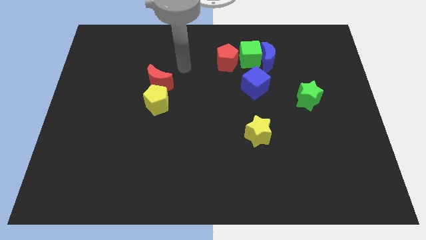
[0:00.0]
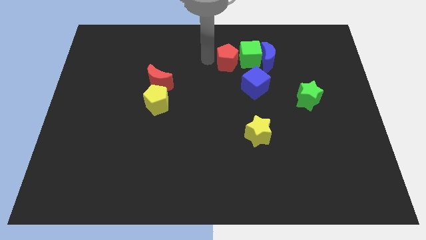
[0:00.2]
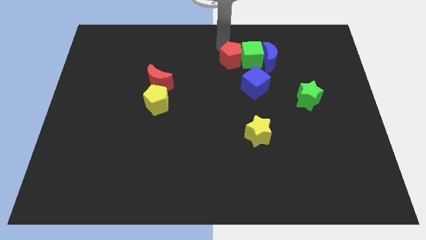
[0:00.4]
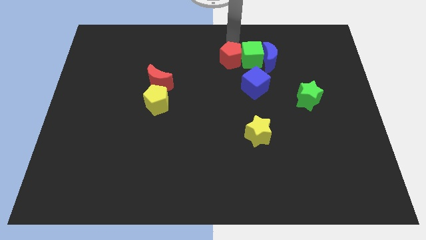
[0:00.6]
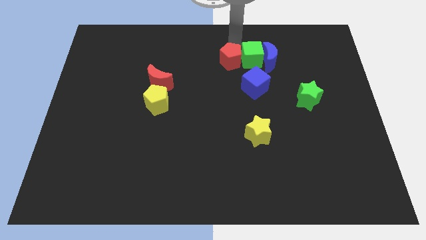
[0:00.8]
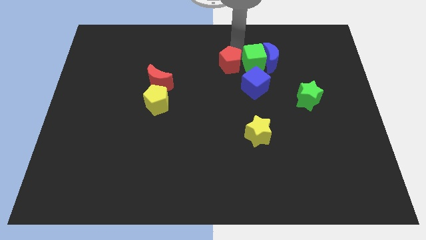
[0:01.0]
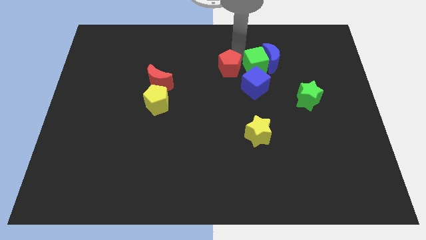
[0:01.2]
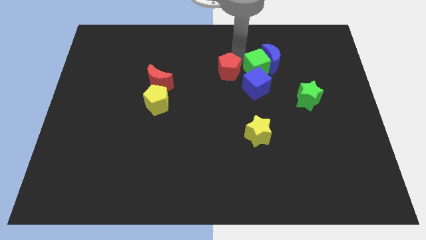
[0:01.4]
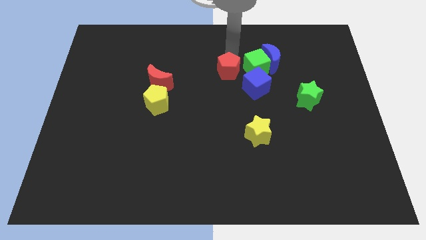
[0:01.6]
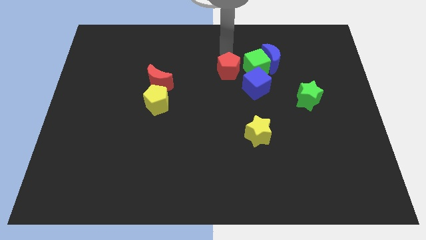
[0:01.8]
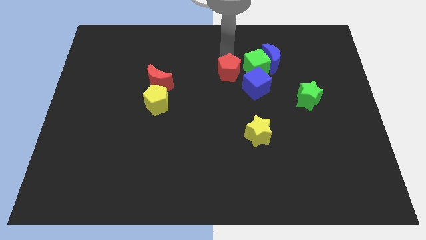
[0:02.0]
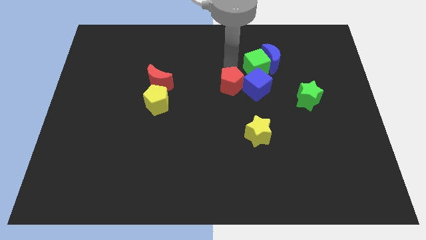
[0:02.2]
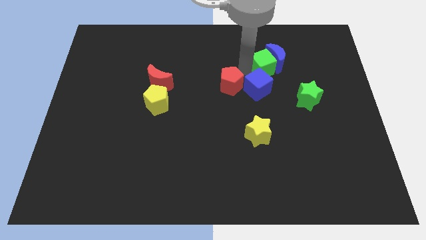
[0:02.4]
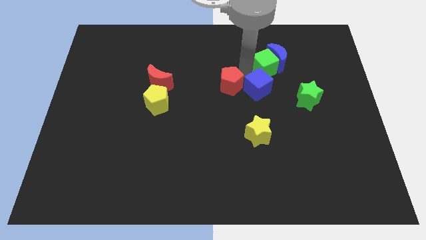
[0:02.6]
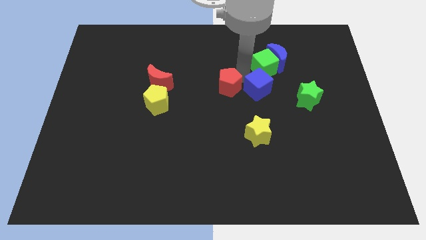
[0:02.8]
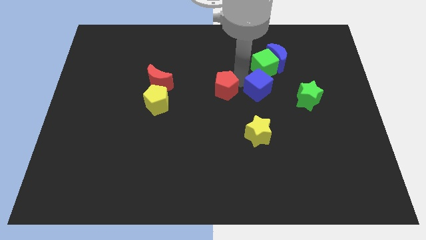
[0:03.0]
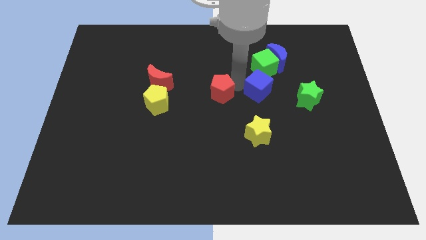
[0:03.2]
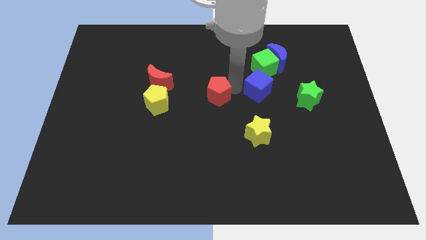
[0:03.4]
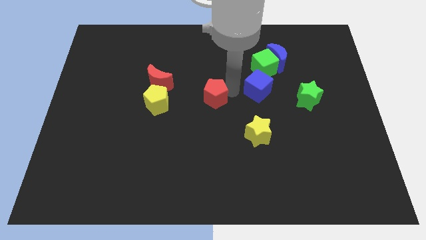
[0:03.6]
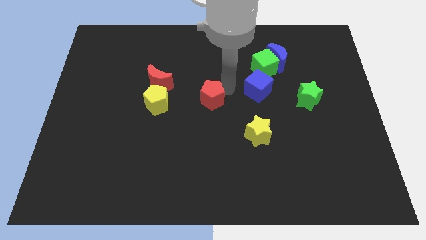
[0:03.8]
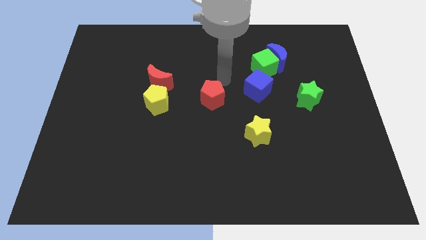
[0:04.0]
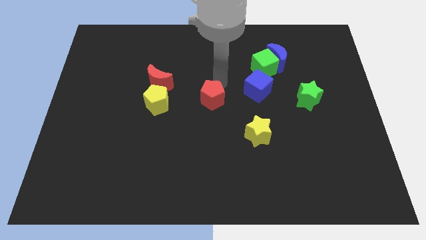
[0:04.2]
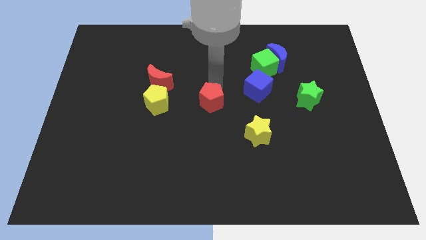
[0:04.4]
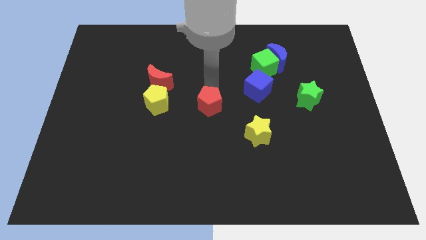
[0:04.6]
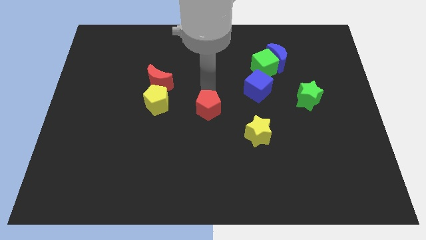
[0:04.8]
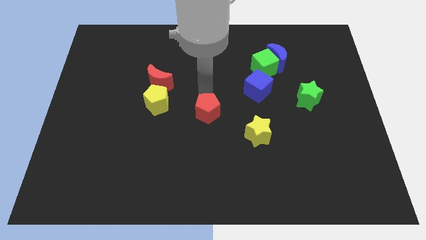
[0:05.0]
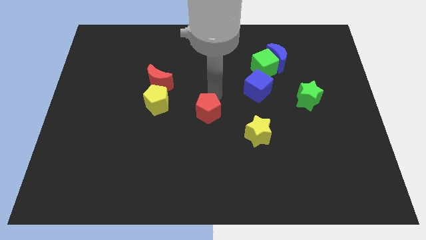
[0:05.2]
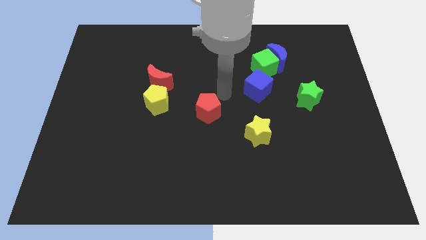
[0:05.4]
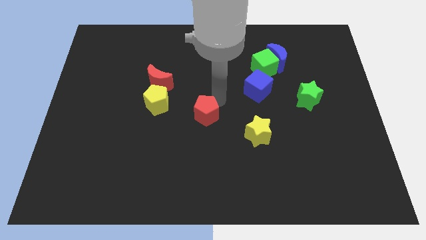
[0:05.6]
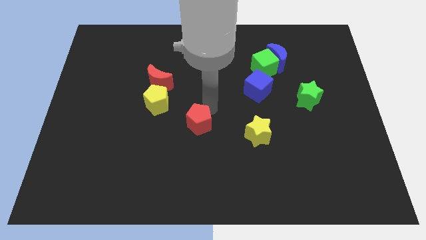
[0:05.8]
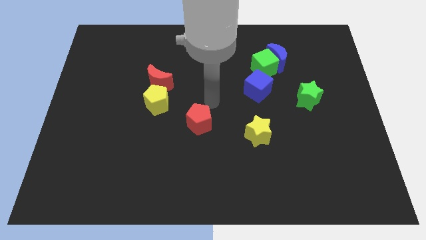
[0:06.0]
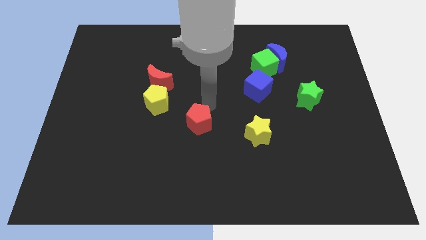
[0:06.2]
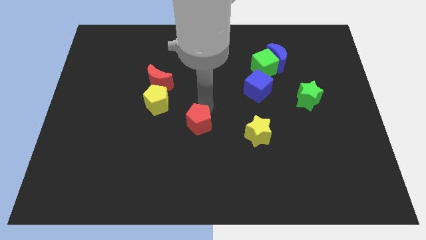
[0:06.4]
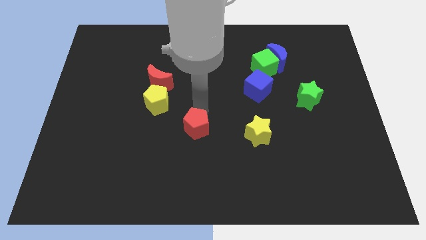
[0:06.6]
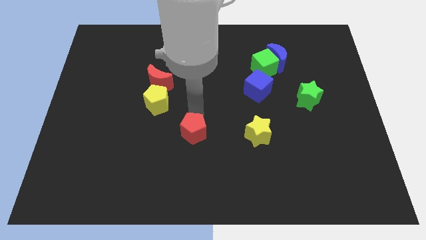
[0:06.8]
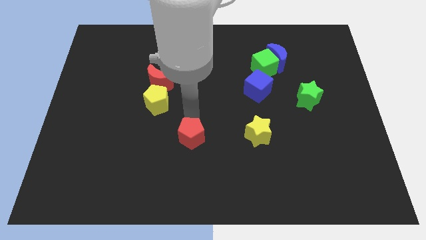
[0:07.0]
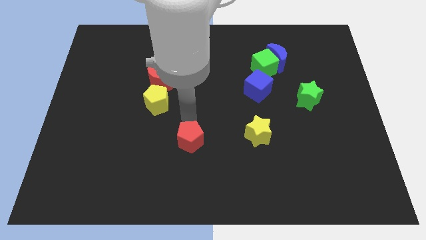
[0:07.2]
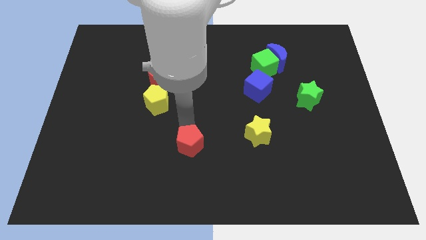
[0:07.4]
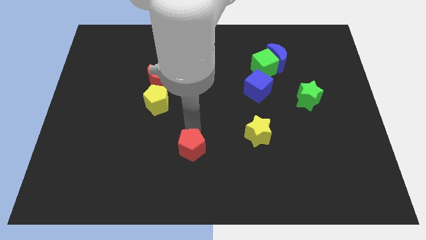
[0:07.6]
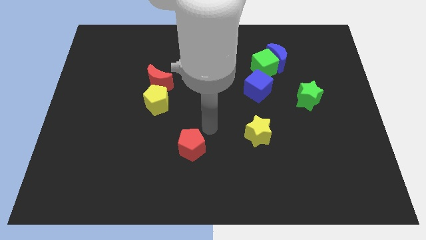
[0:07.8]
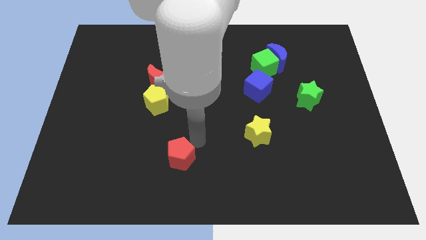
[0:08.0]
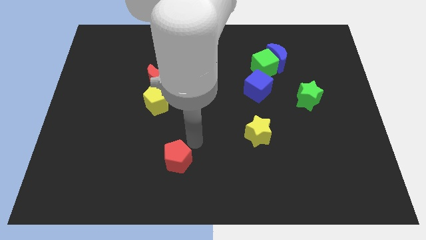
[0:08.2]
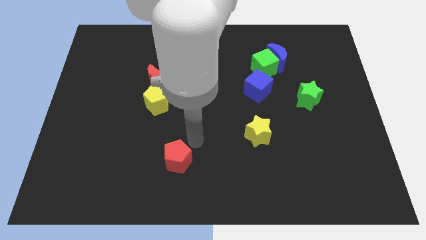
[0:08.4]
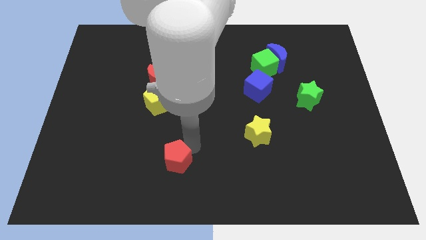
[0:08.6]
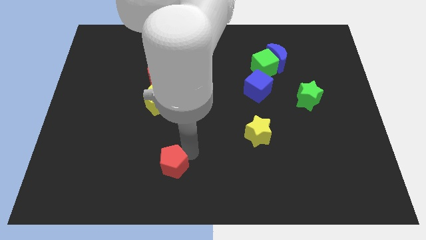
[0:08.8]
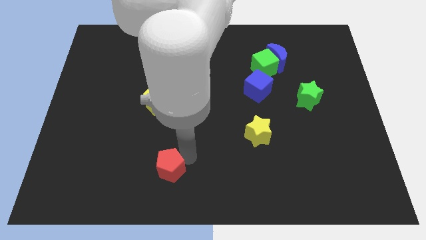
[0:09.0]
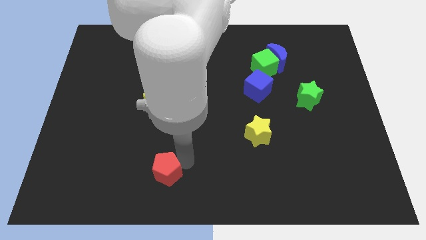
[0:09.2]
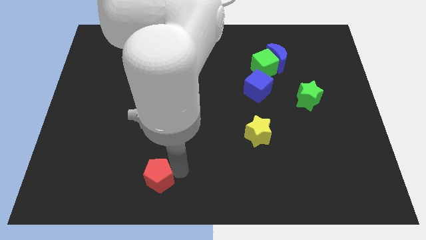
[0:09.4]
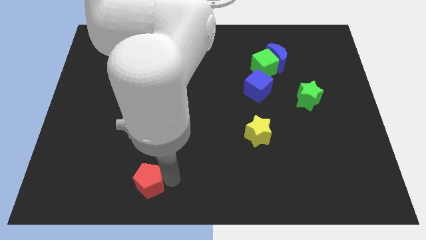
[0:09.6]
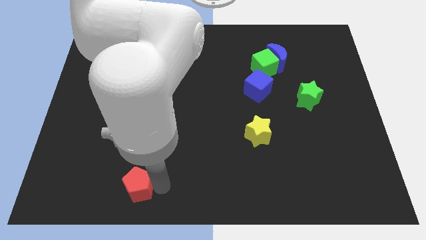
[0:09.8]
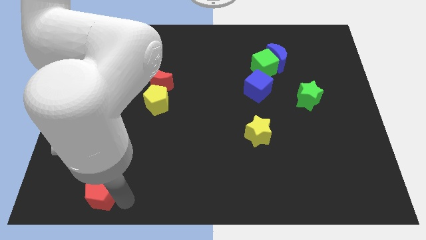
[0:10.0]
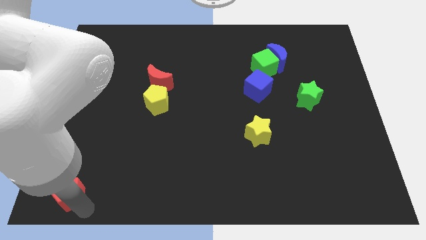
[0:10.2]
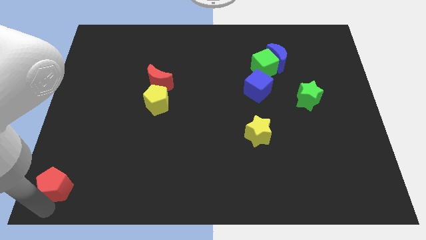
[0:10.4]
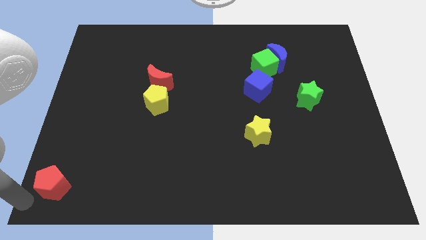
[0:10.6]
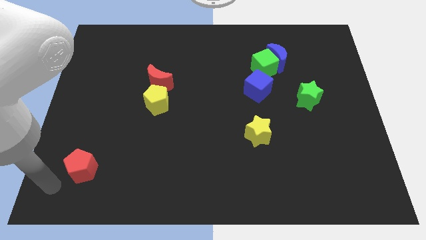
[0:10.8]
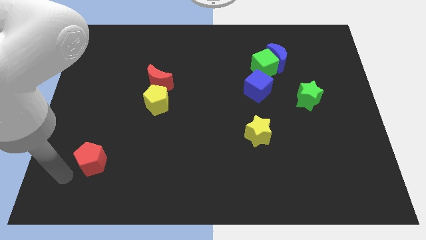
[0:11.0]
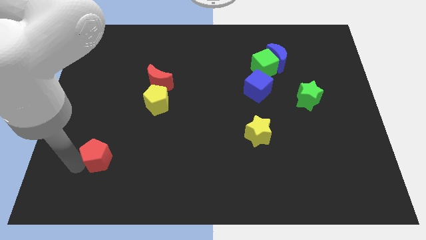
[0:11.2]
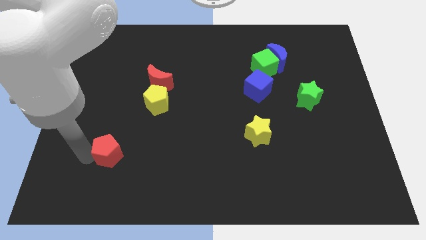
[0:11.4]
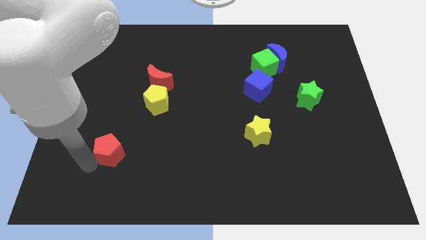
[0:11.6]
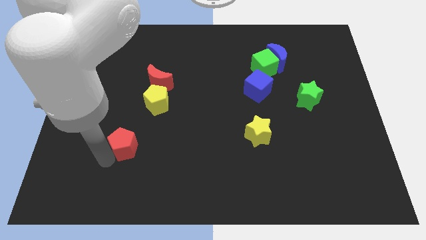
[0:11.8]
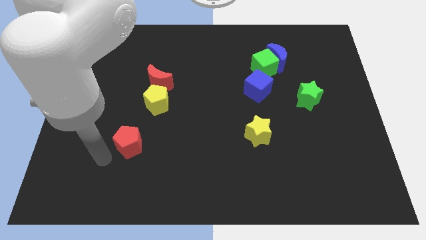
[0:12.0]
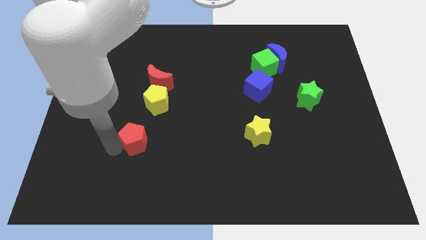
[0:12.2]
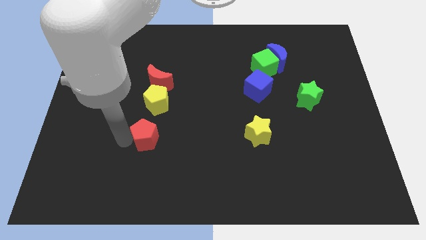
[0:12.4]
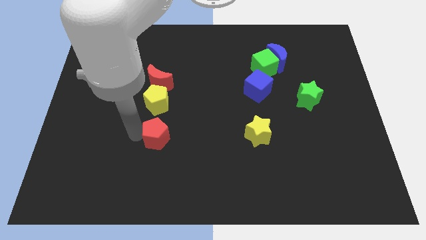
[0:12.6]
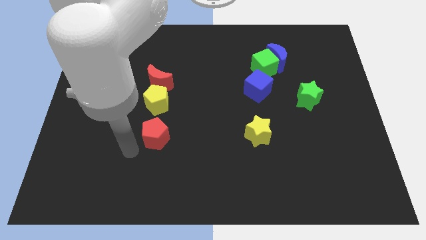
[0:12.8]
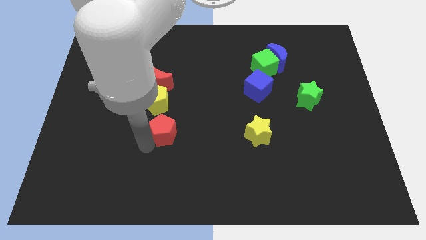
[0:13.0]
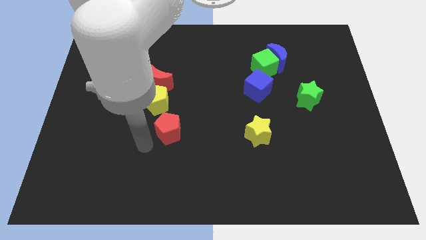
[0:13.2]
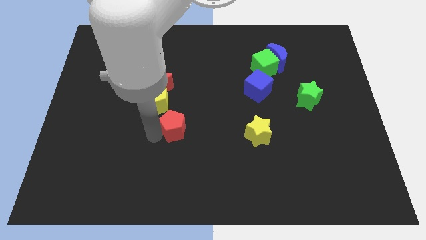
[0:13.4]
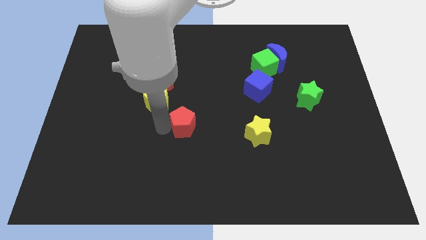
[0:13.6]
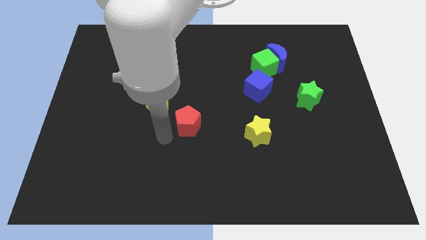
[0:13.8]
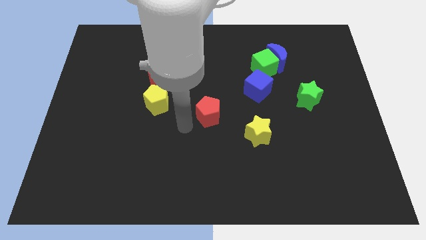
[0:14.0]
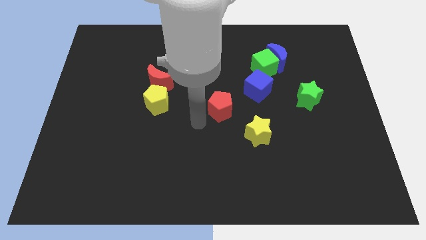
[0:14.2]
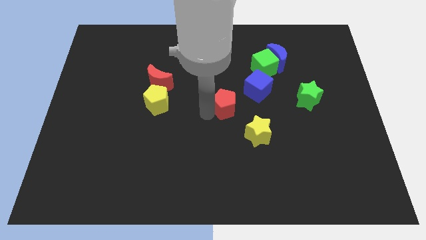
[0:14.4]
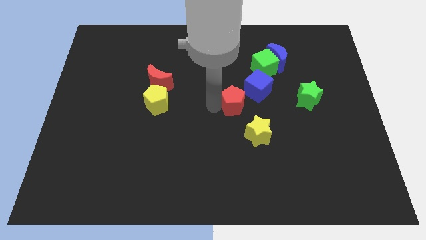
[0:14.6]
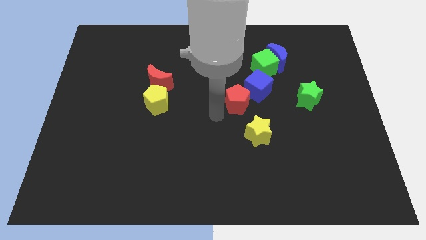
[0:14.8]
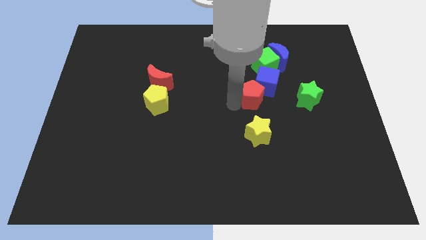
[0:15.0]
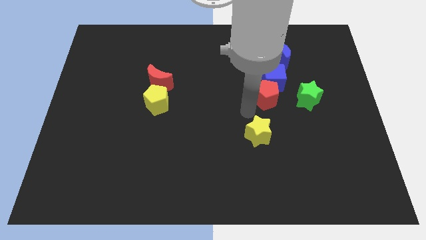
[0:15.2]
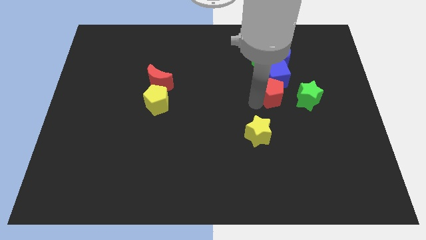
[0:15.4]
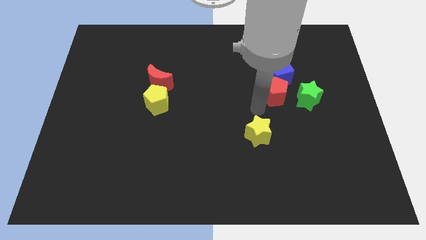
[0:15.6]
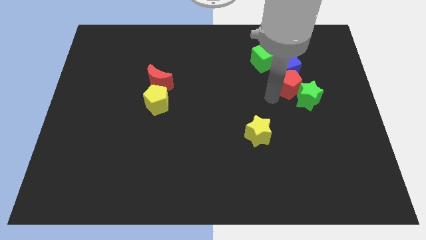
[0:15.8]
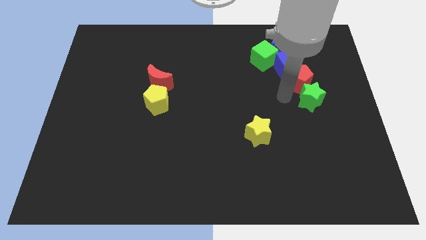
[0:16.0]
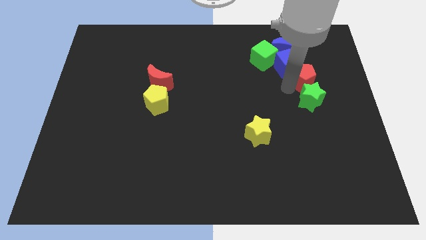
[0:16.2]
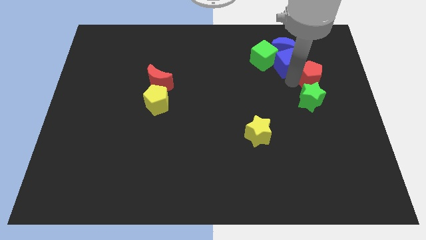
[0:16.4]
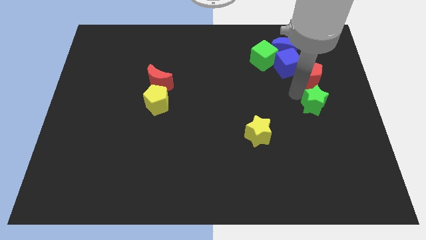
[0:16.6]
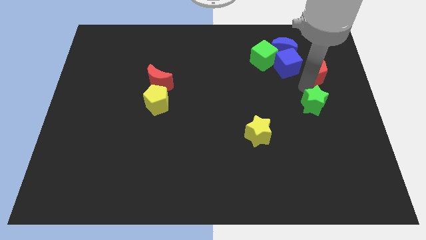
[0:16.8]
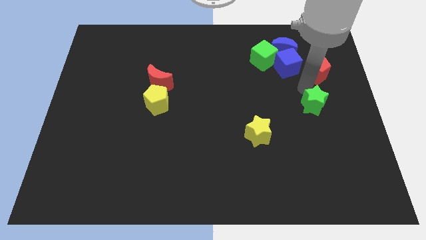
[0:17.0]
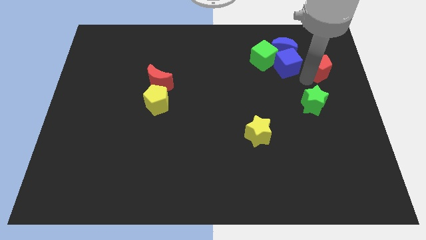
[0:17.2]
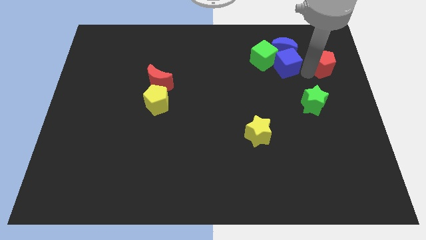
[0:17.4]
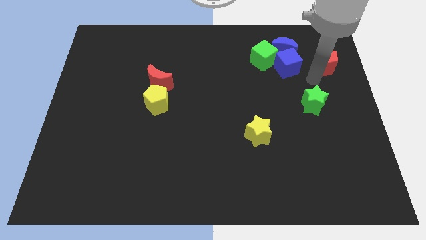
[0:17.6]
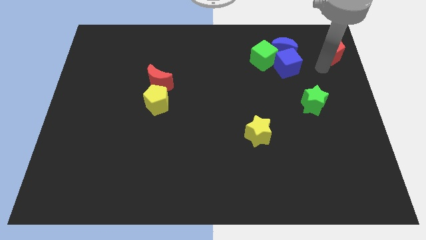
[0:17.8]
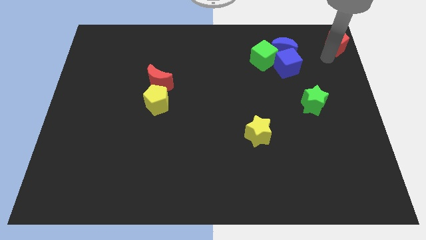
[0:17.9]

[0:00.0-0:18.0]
slide the red pentagon to the top right corner
